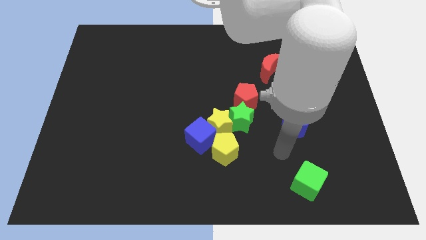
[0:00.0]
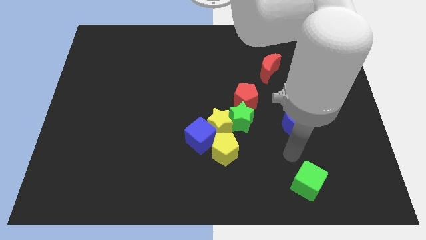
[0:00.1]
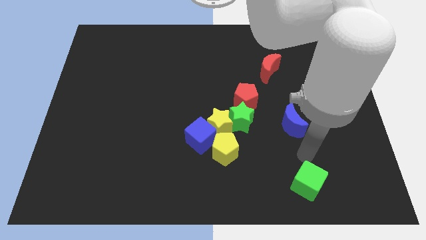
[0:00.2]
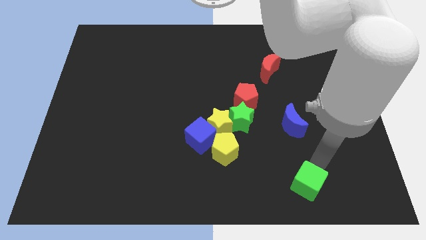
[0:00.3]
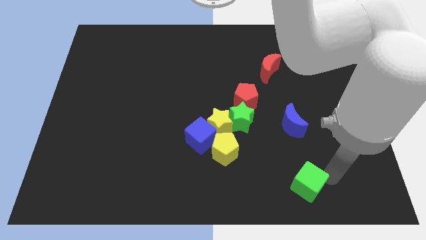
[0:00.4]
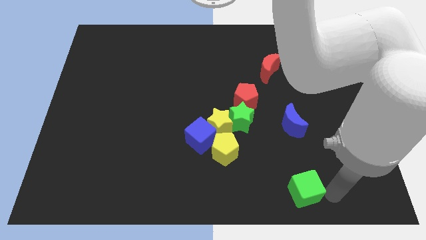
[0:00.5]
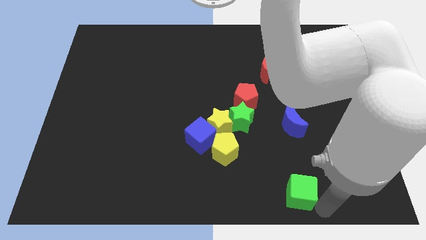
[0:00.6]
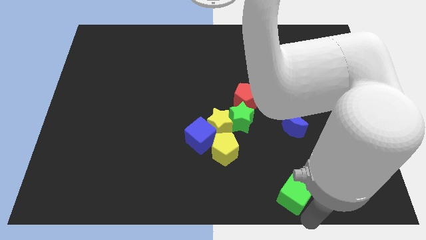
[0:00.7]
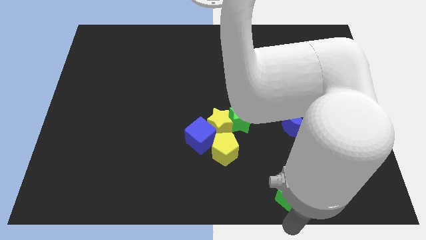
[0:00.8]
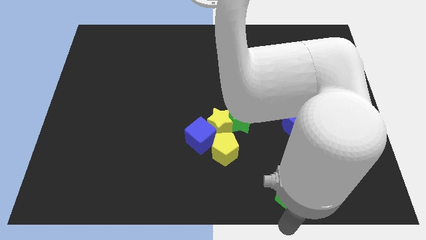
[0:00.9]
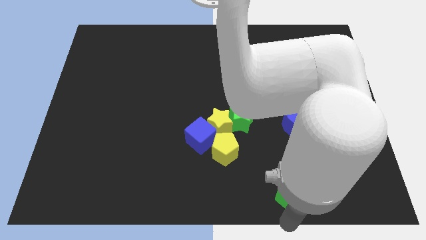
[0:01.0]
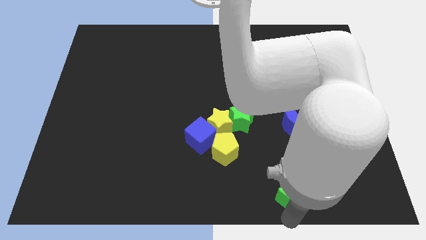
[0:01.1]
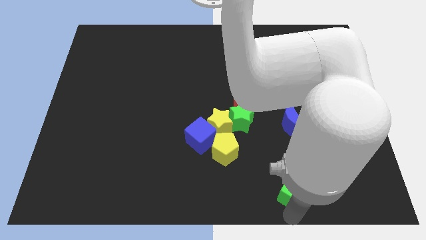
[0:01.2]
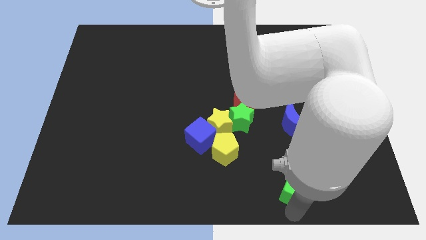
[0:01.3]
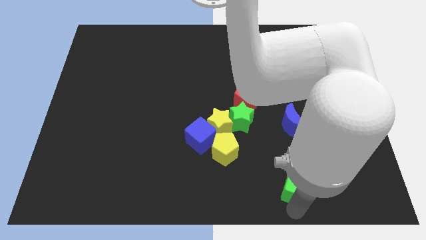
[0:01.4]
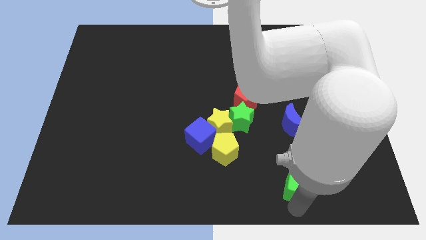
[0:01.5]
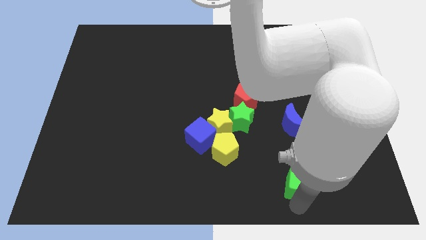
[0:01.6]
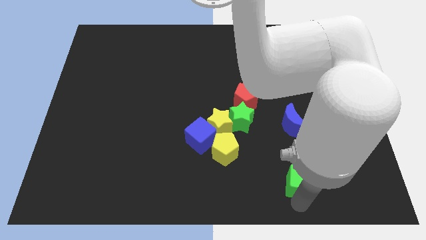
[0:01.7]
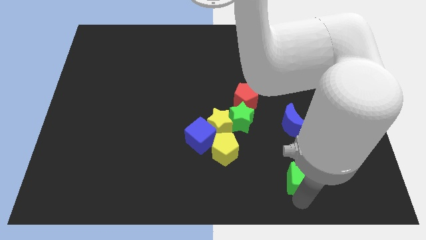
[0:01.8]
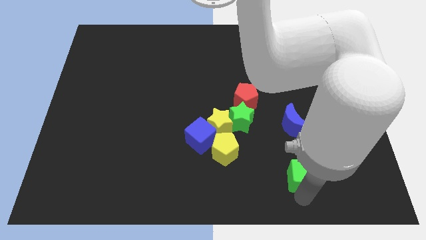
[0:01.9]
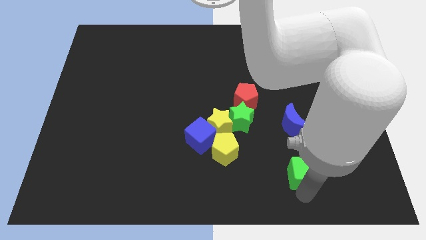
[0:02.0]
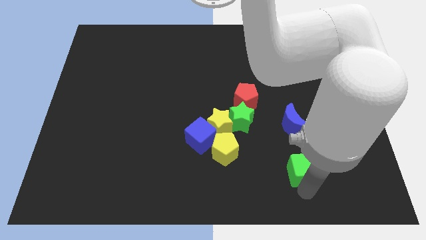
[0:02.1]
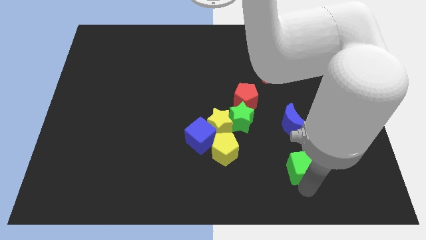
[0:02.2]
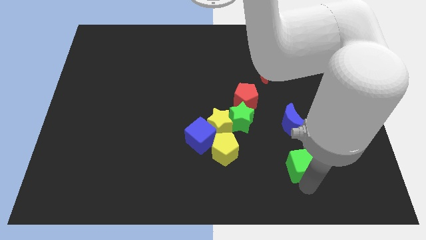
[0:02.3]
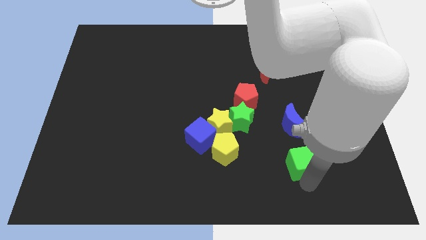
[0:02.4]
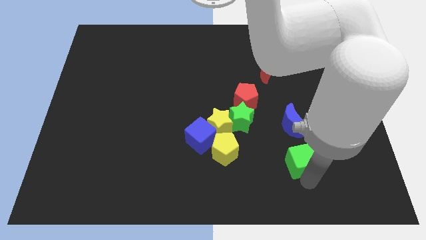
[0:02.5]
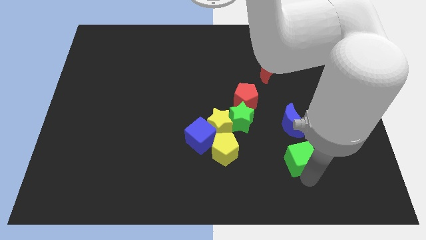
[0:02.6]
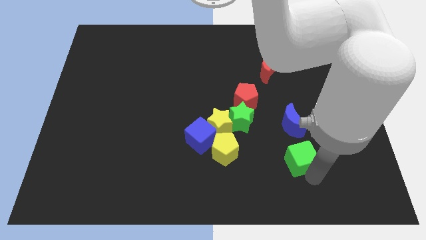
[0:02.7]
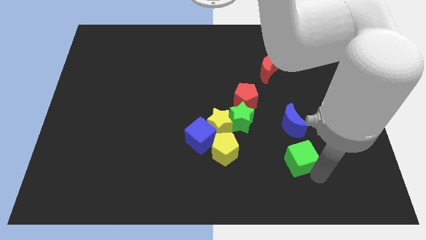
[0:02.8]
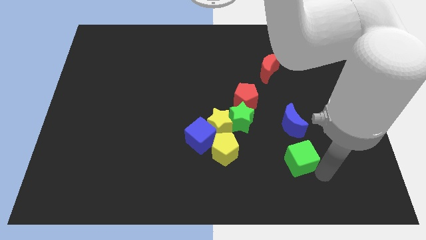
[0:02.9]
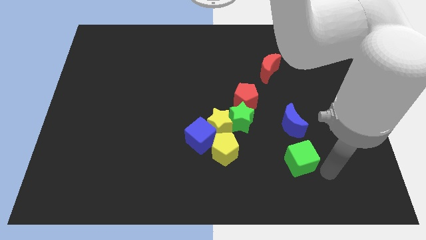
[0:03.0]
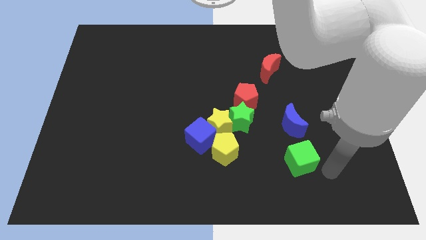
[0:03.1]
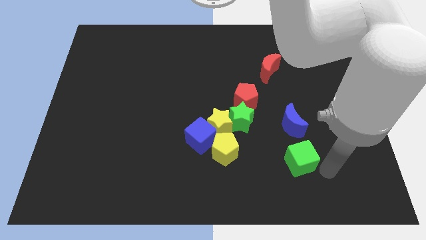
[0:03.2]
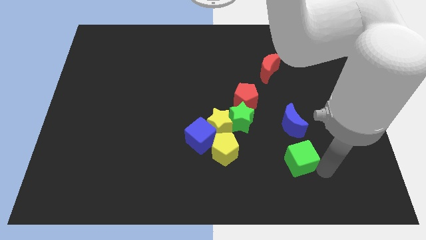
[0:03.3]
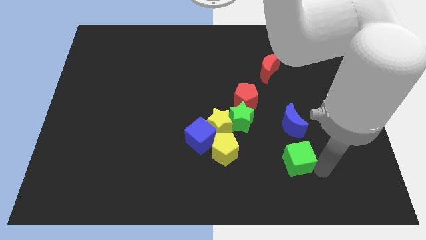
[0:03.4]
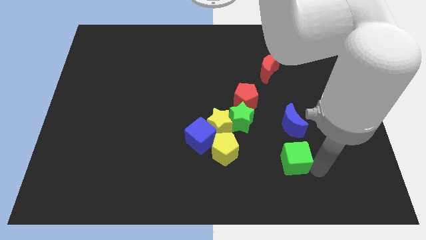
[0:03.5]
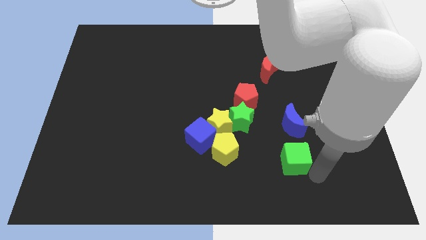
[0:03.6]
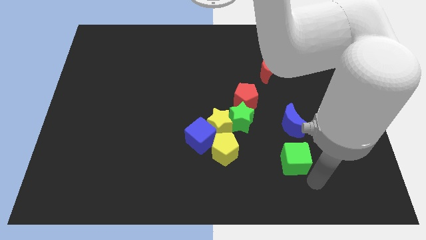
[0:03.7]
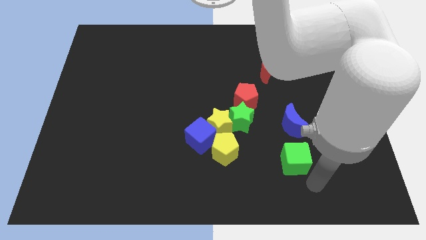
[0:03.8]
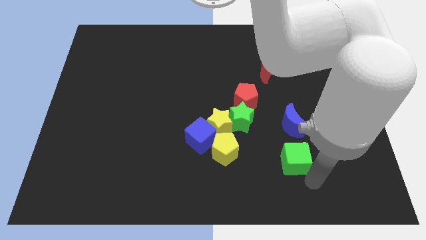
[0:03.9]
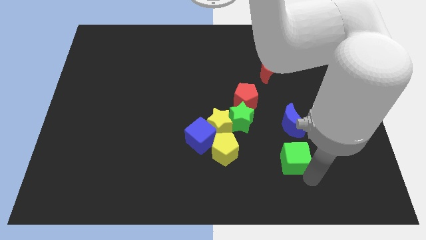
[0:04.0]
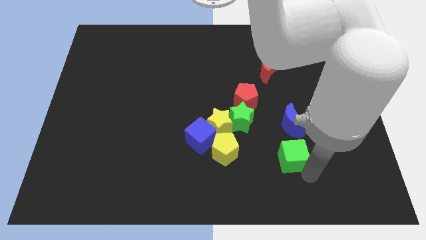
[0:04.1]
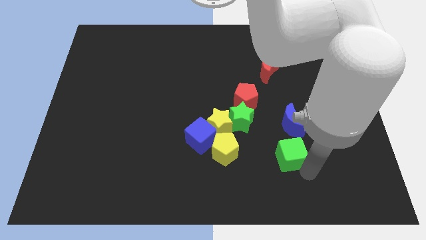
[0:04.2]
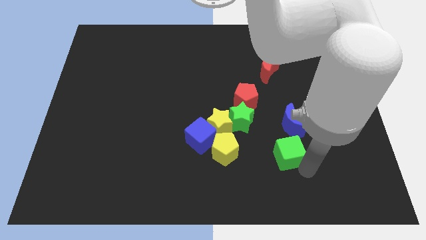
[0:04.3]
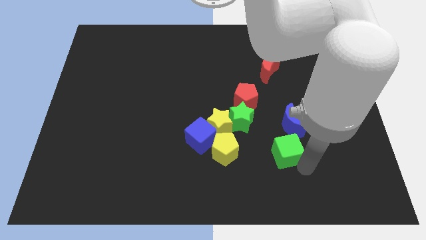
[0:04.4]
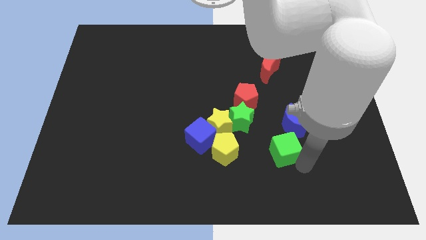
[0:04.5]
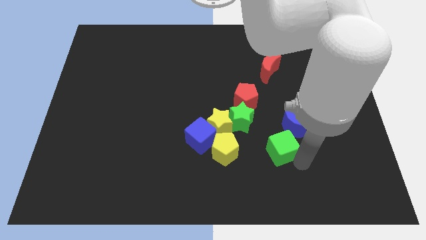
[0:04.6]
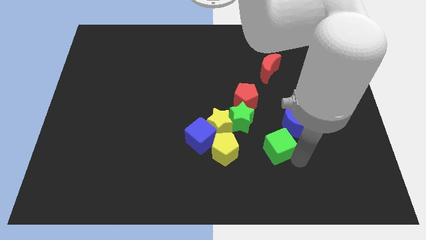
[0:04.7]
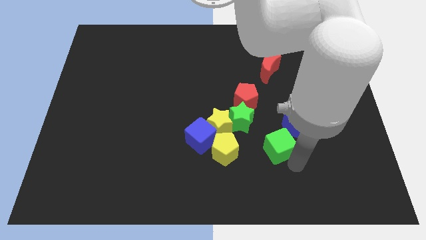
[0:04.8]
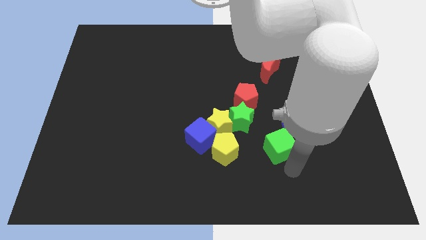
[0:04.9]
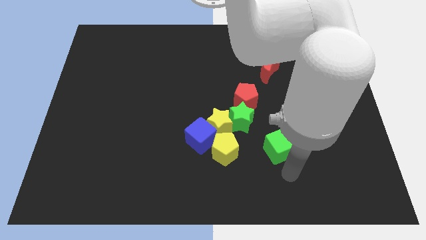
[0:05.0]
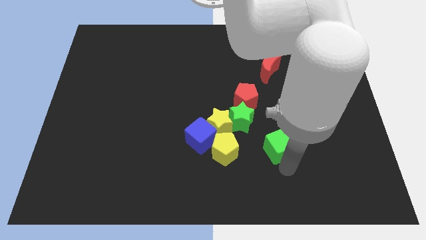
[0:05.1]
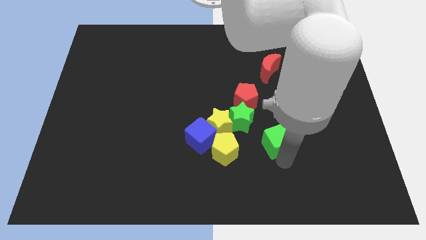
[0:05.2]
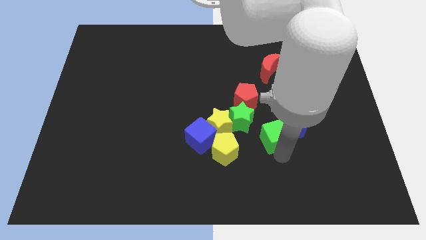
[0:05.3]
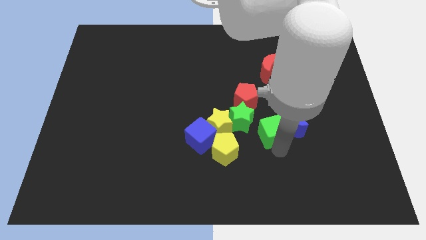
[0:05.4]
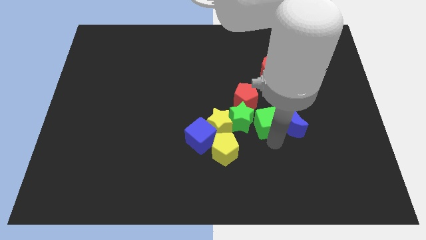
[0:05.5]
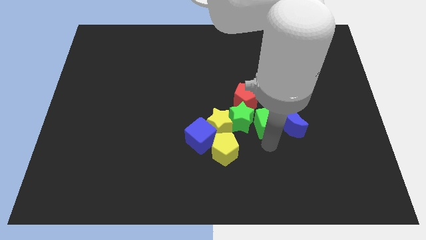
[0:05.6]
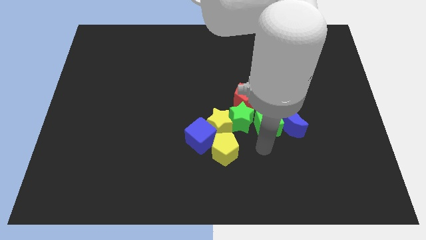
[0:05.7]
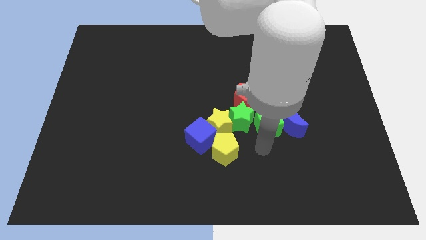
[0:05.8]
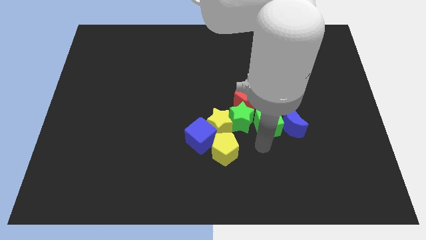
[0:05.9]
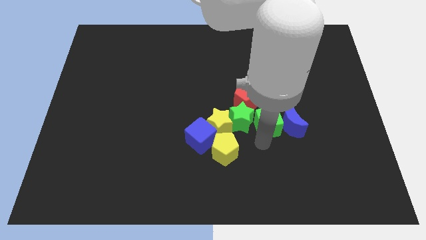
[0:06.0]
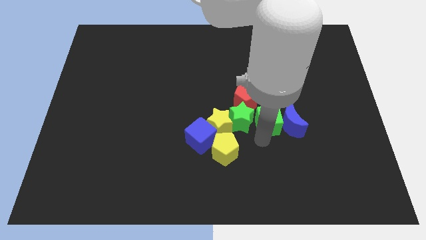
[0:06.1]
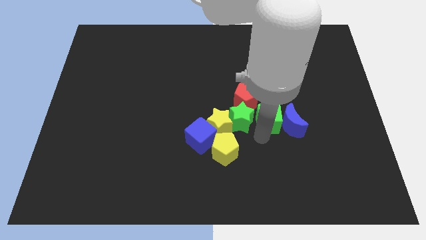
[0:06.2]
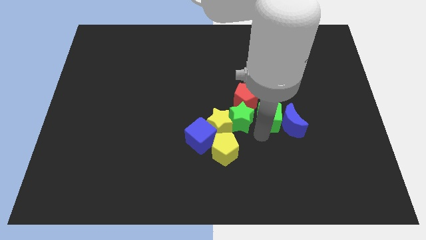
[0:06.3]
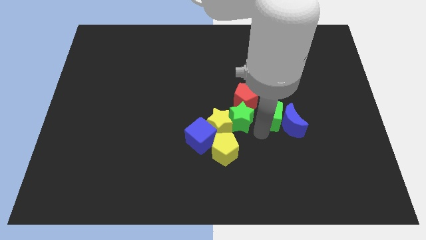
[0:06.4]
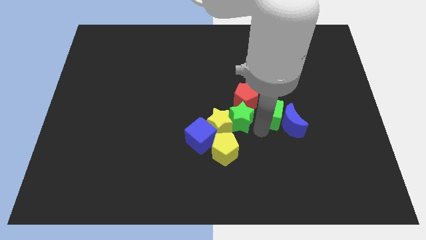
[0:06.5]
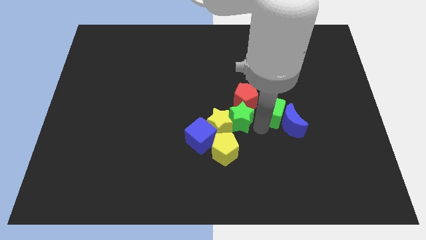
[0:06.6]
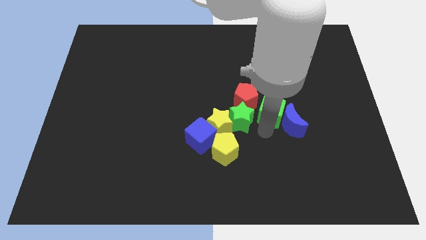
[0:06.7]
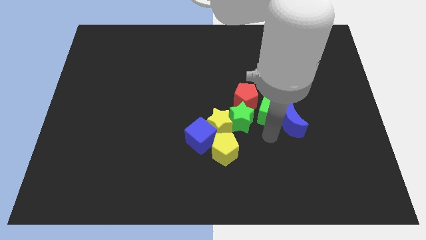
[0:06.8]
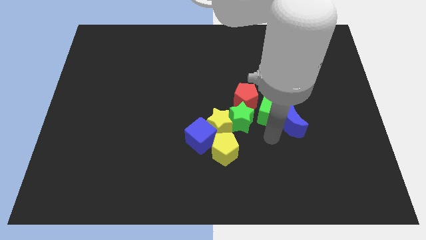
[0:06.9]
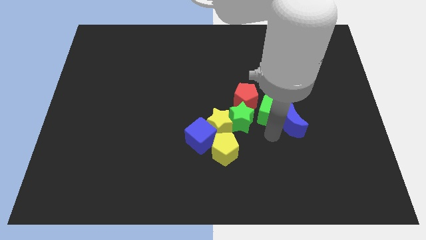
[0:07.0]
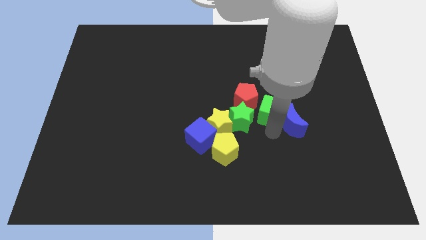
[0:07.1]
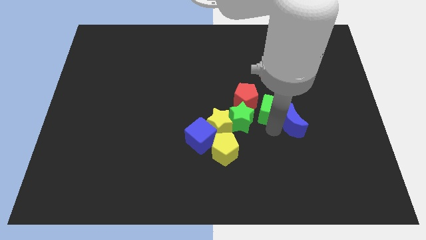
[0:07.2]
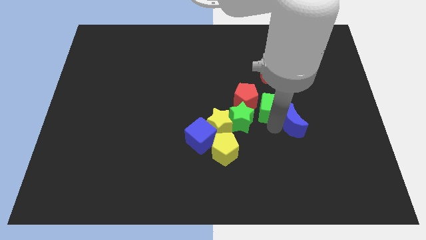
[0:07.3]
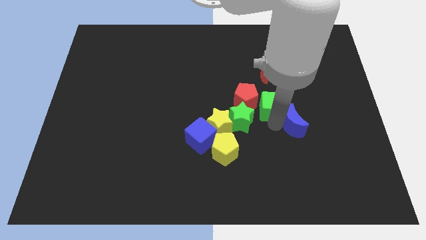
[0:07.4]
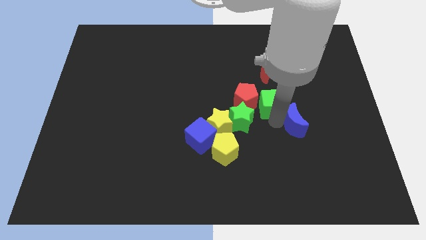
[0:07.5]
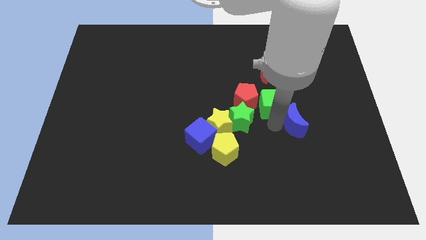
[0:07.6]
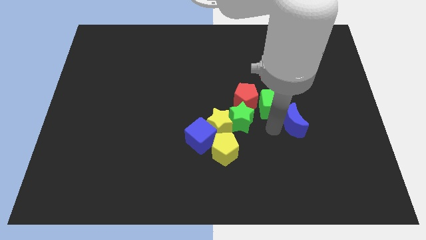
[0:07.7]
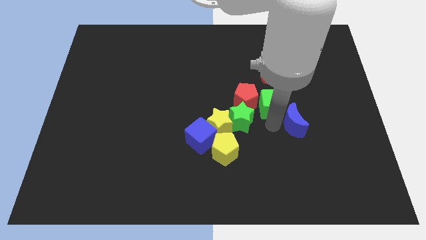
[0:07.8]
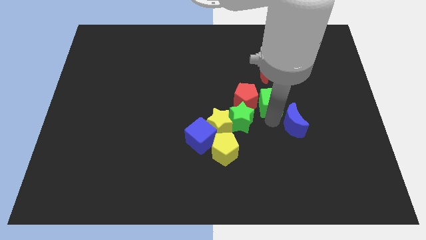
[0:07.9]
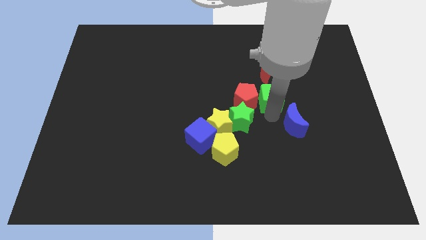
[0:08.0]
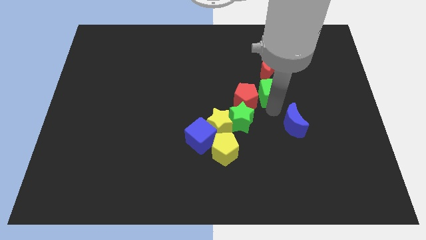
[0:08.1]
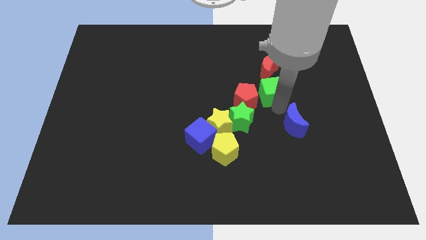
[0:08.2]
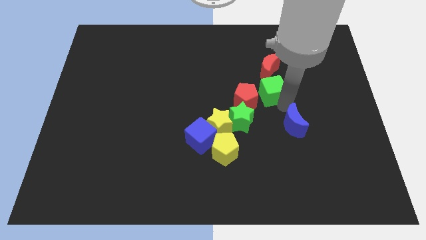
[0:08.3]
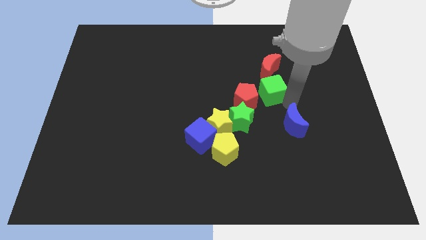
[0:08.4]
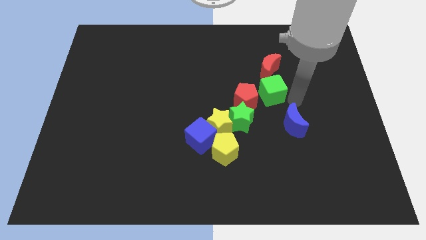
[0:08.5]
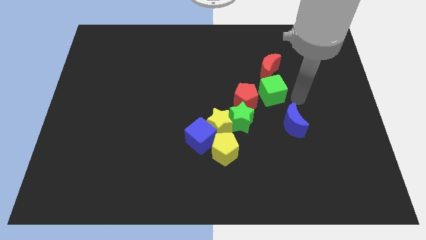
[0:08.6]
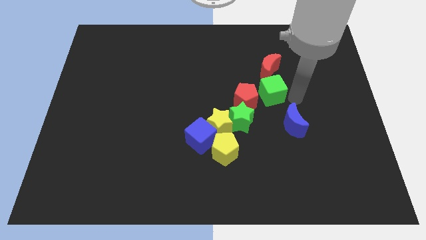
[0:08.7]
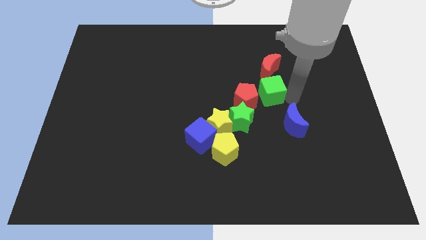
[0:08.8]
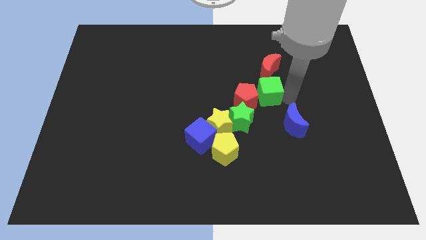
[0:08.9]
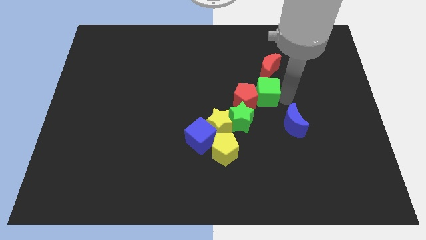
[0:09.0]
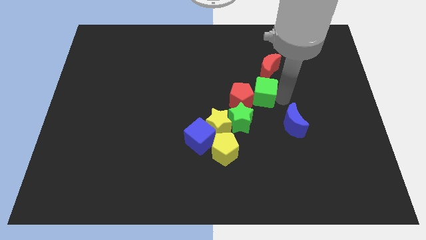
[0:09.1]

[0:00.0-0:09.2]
put the green cube to the center
